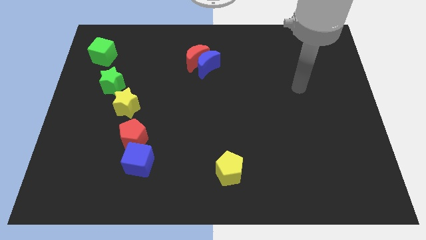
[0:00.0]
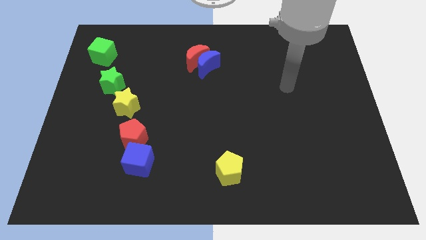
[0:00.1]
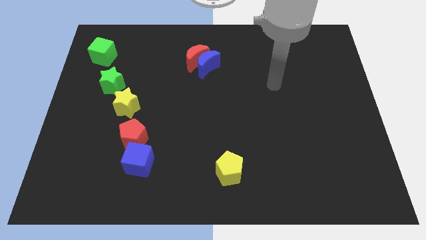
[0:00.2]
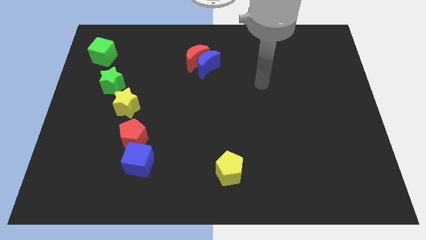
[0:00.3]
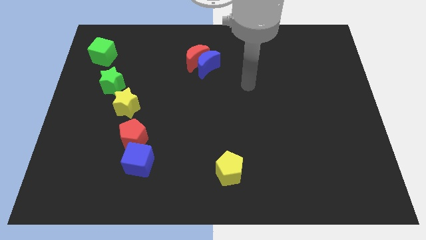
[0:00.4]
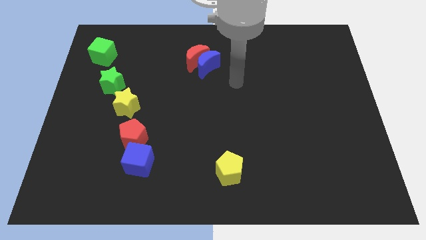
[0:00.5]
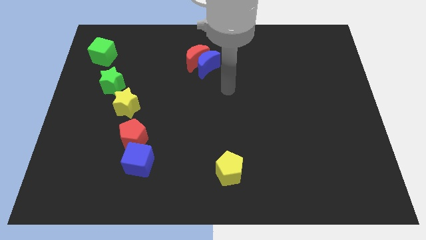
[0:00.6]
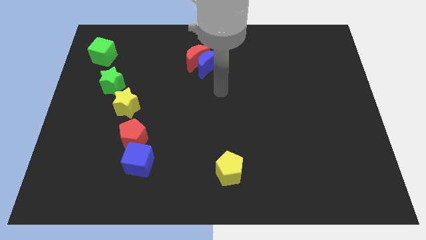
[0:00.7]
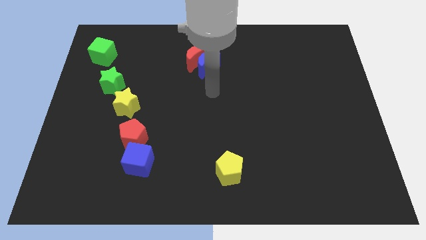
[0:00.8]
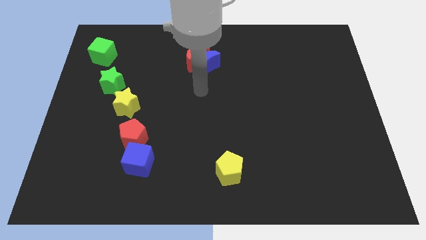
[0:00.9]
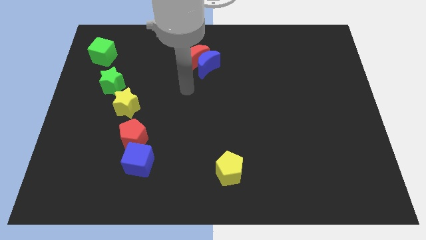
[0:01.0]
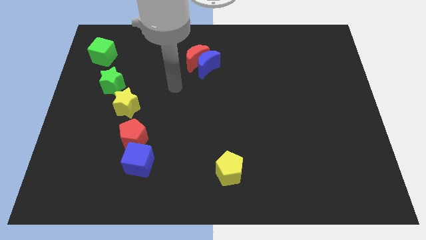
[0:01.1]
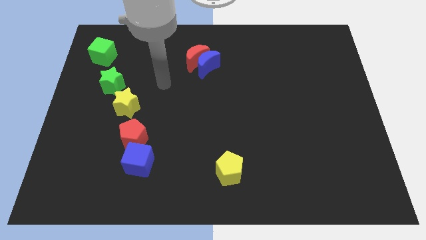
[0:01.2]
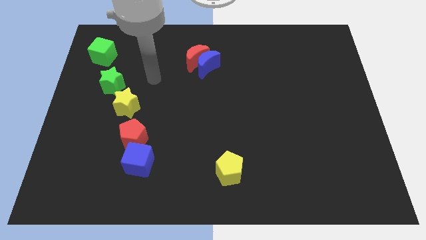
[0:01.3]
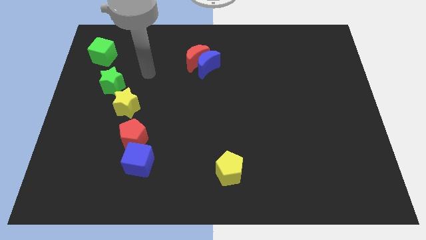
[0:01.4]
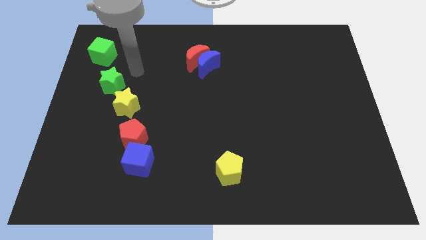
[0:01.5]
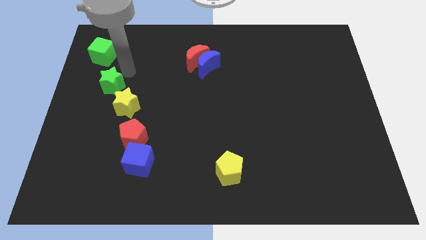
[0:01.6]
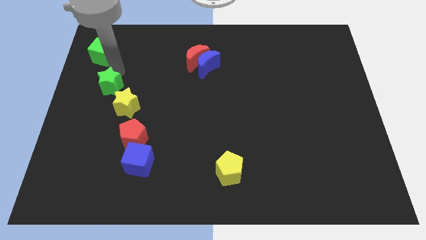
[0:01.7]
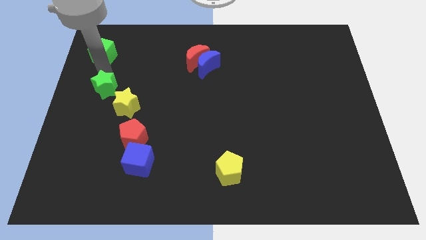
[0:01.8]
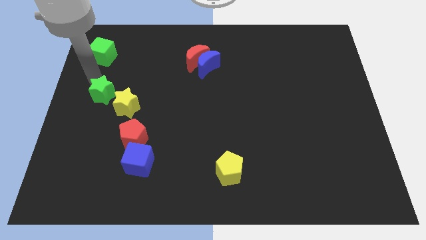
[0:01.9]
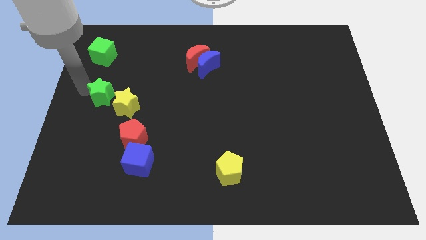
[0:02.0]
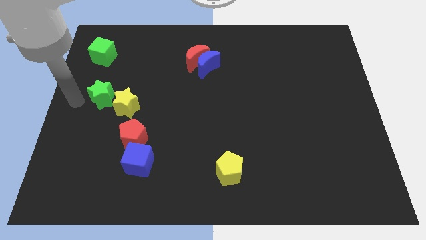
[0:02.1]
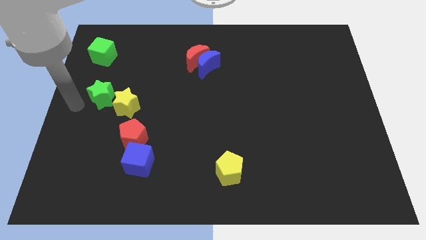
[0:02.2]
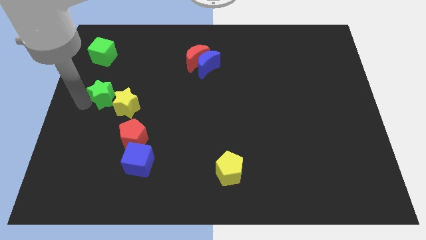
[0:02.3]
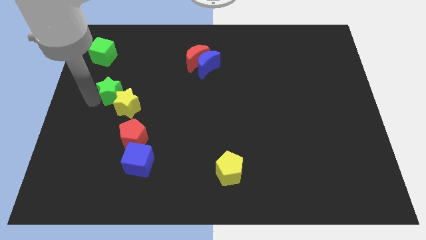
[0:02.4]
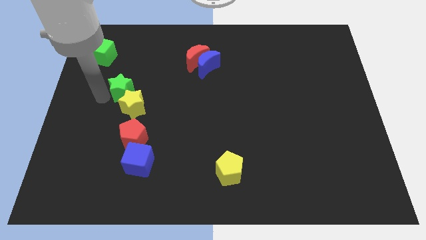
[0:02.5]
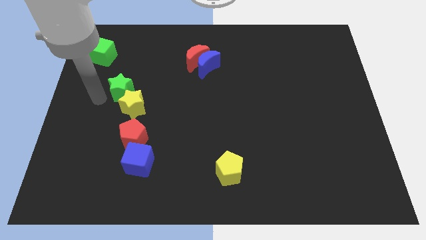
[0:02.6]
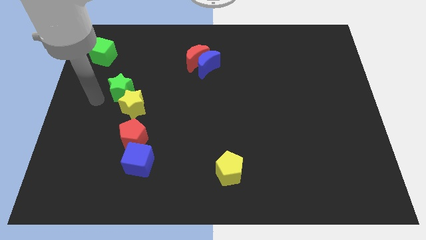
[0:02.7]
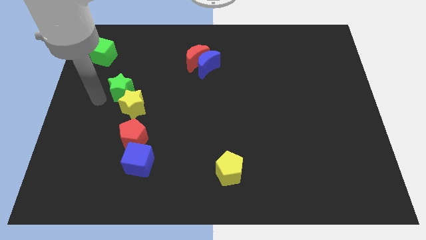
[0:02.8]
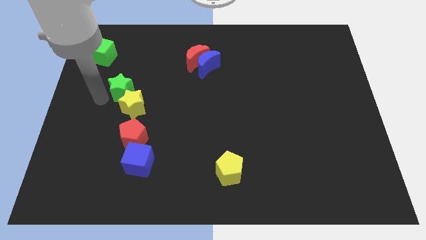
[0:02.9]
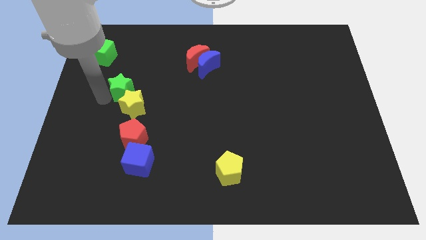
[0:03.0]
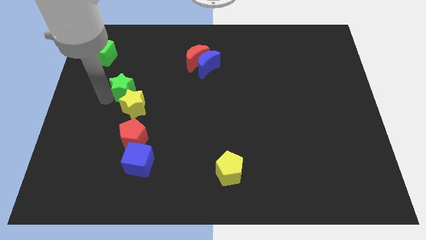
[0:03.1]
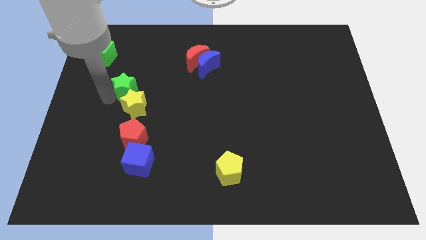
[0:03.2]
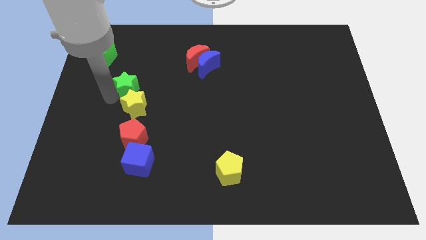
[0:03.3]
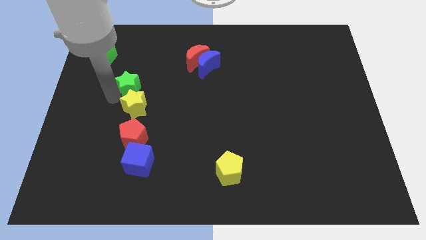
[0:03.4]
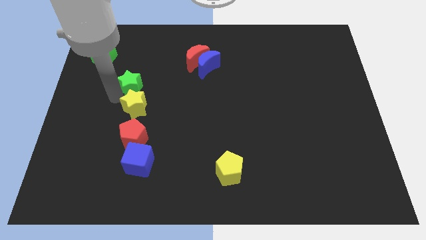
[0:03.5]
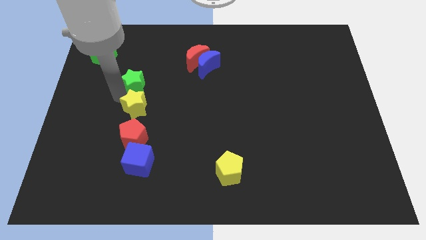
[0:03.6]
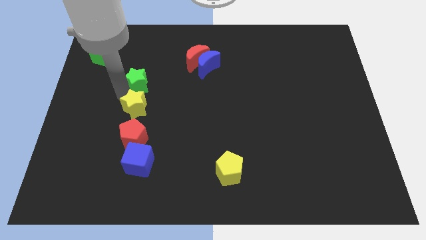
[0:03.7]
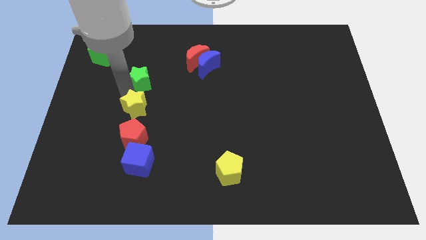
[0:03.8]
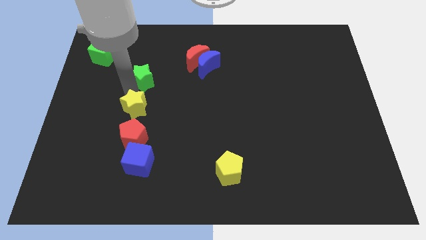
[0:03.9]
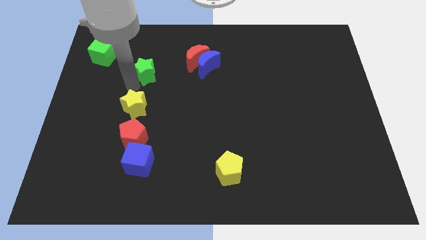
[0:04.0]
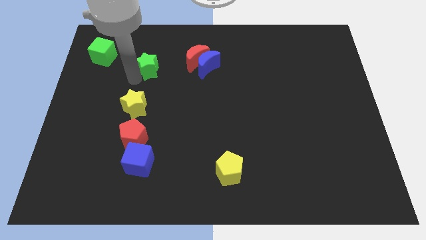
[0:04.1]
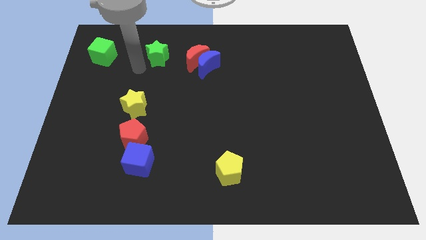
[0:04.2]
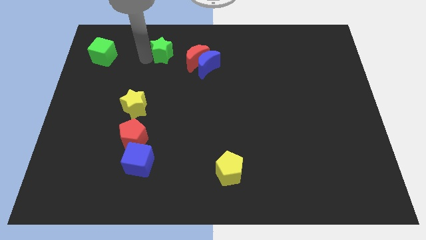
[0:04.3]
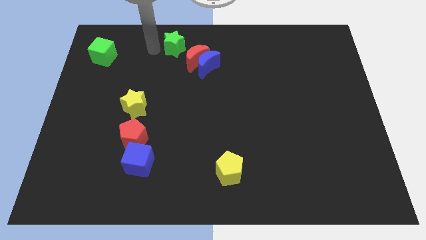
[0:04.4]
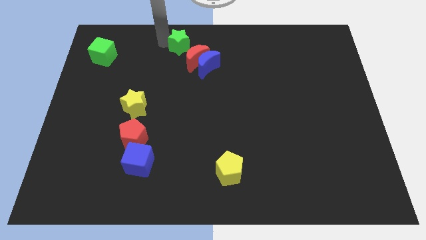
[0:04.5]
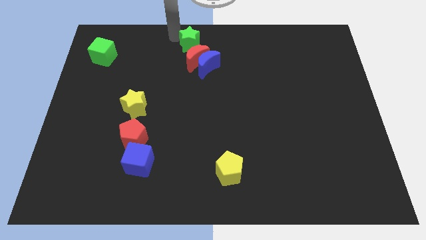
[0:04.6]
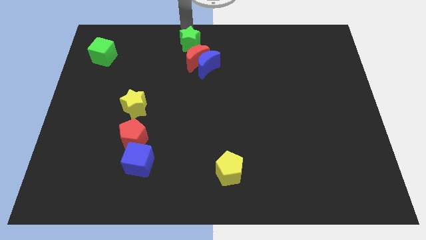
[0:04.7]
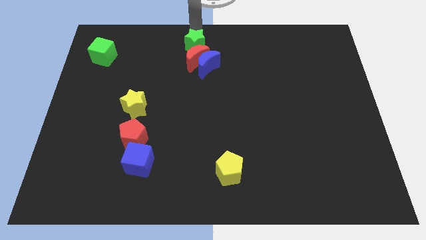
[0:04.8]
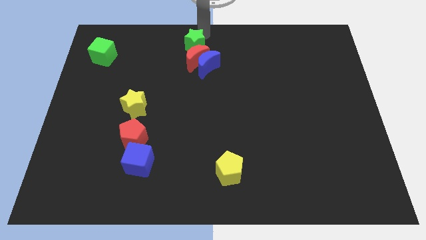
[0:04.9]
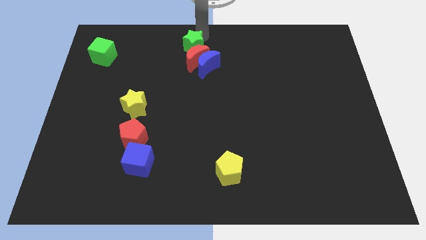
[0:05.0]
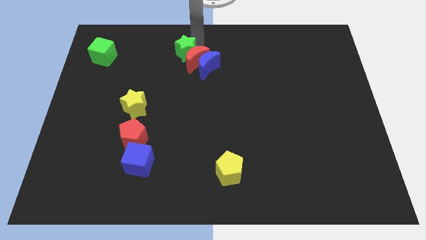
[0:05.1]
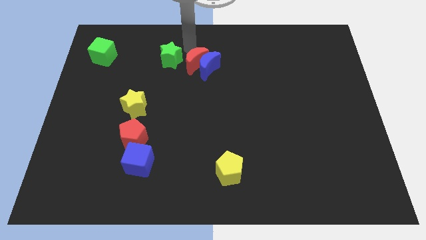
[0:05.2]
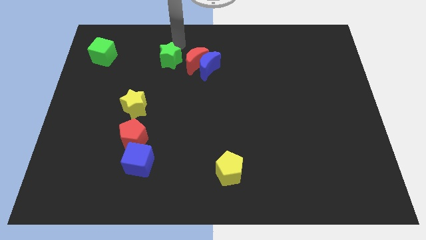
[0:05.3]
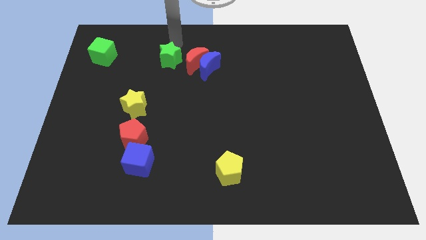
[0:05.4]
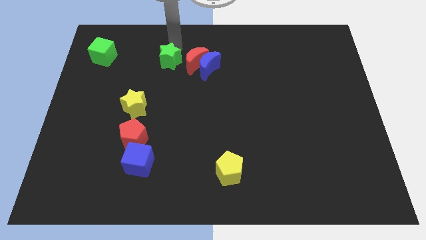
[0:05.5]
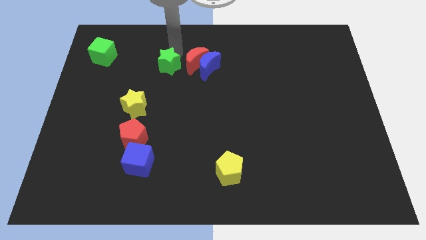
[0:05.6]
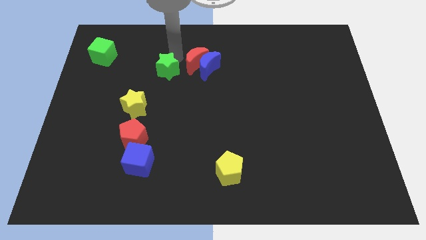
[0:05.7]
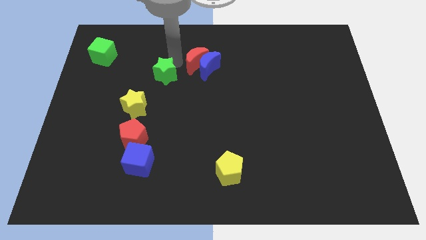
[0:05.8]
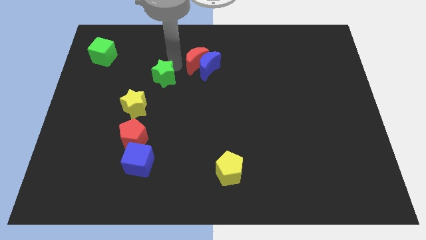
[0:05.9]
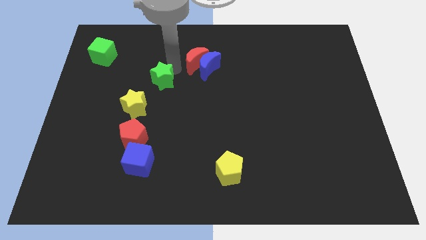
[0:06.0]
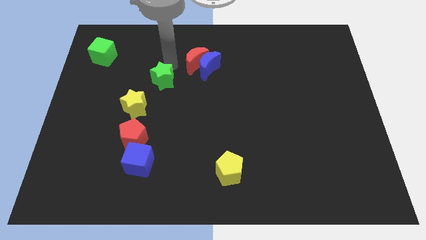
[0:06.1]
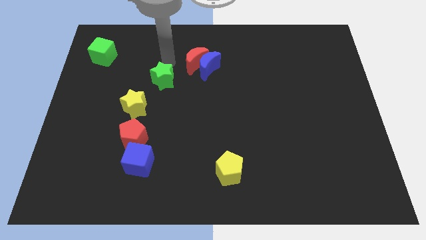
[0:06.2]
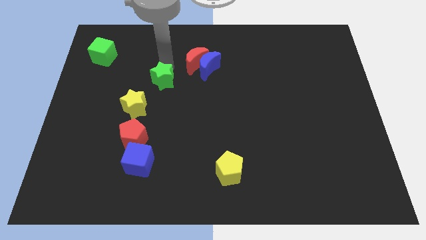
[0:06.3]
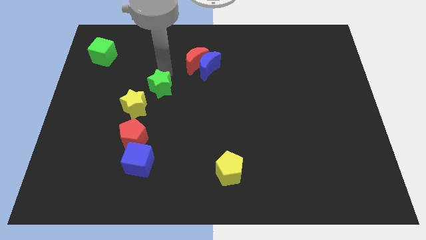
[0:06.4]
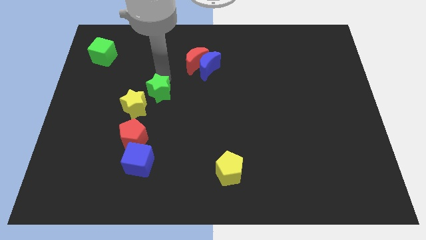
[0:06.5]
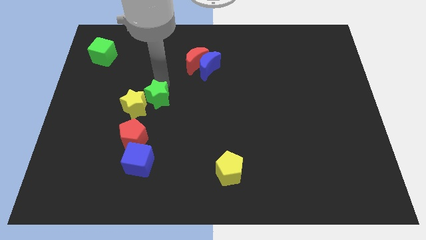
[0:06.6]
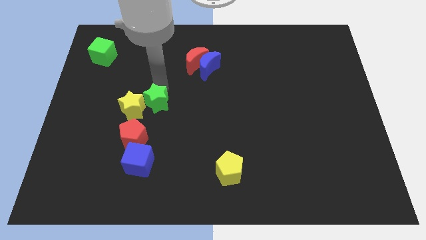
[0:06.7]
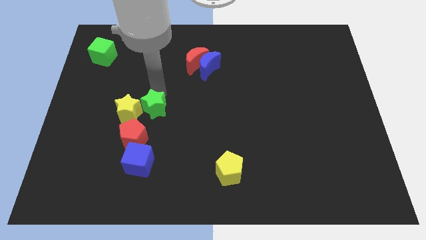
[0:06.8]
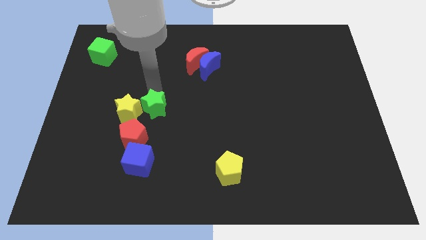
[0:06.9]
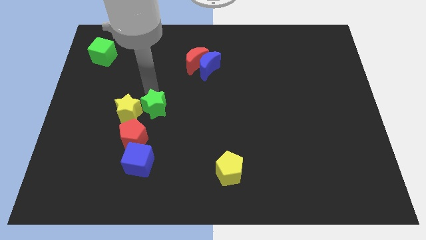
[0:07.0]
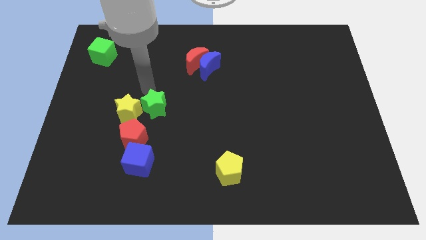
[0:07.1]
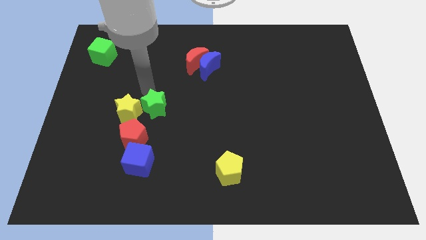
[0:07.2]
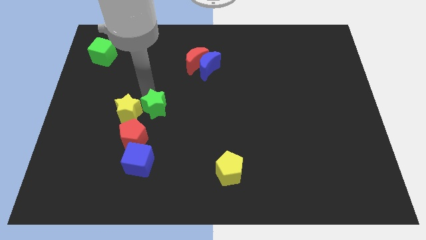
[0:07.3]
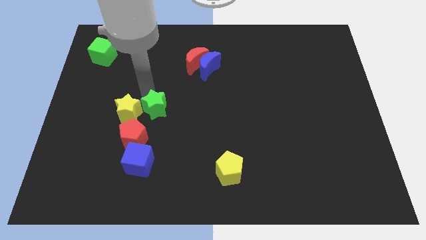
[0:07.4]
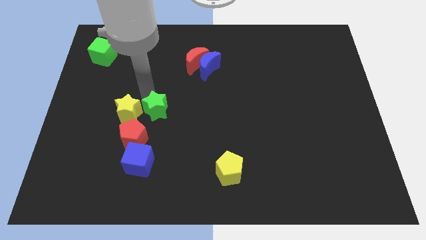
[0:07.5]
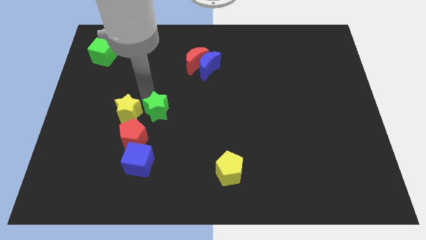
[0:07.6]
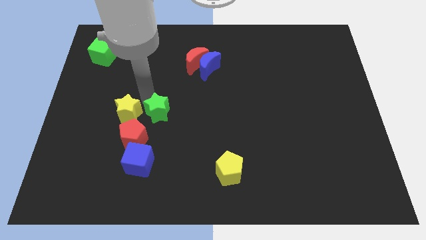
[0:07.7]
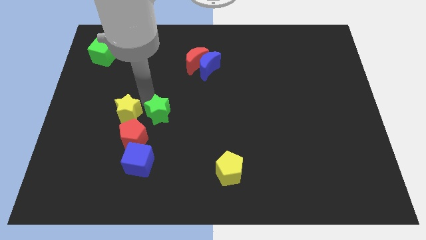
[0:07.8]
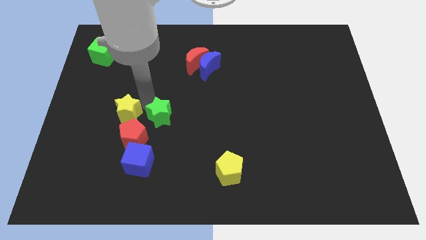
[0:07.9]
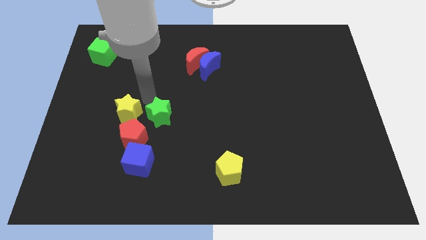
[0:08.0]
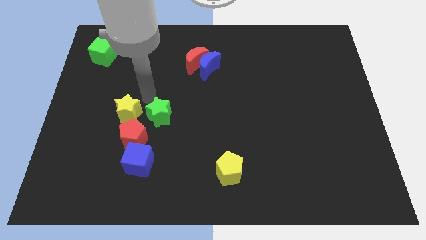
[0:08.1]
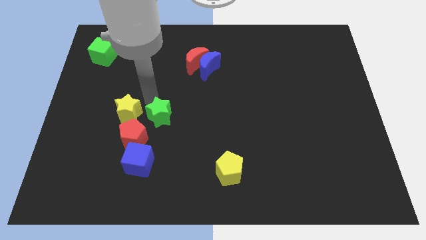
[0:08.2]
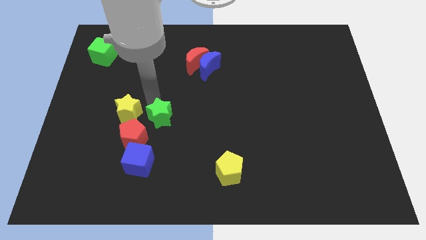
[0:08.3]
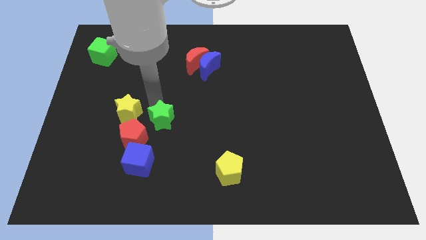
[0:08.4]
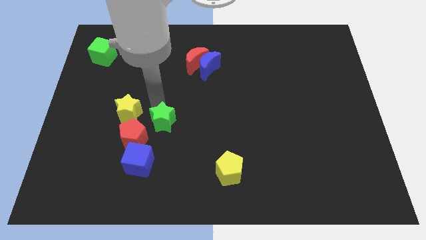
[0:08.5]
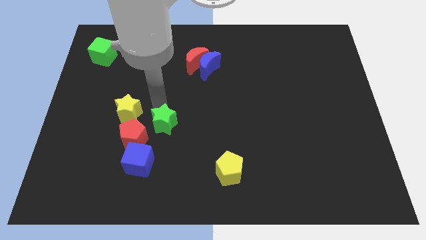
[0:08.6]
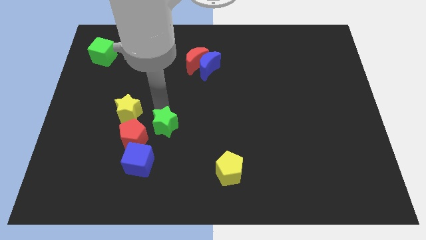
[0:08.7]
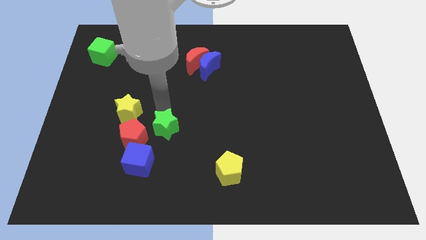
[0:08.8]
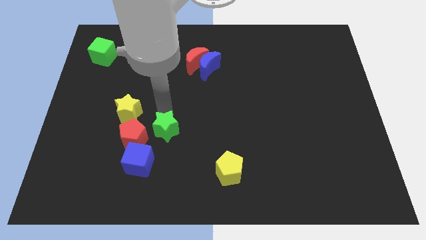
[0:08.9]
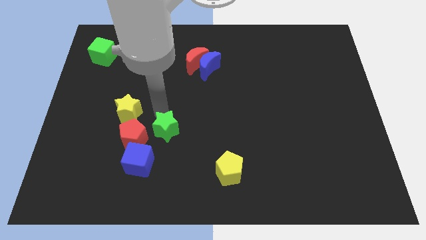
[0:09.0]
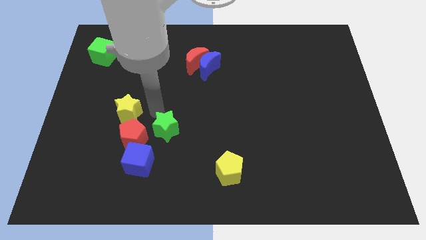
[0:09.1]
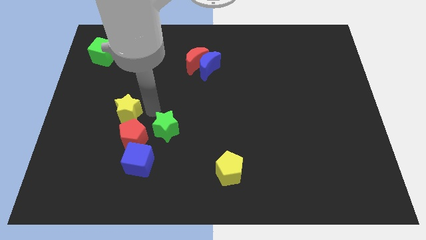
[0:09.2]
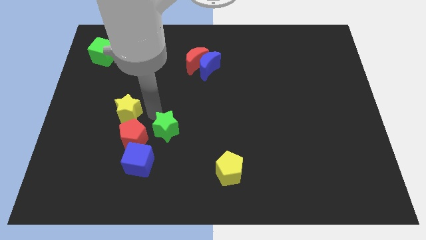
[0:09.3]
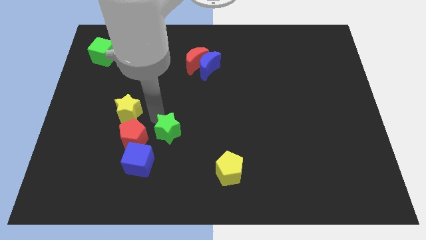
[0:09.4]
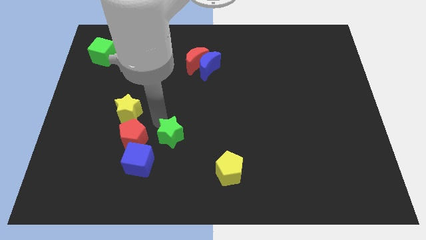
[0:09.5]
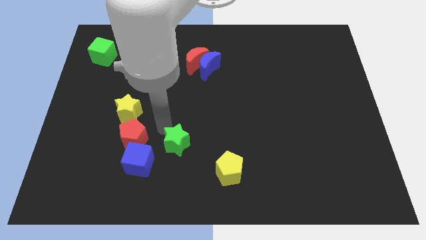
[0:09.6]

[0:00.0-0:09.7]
put the green star to the right of the blue cube
